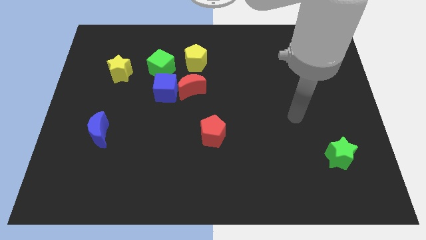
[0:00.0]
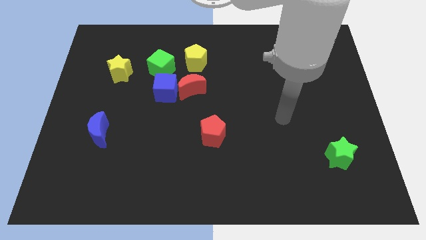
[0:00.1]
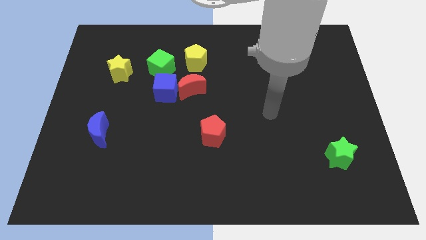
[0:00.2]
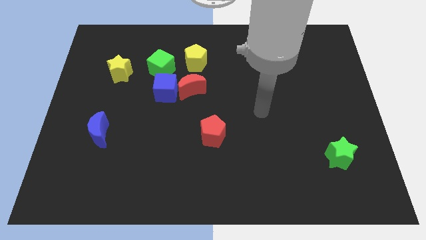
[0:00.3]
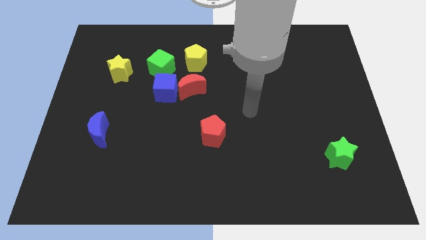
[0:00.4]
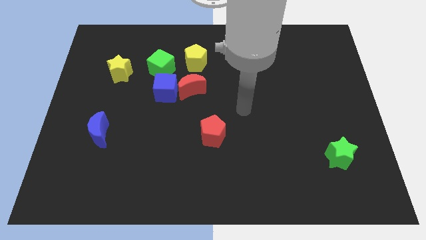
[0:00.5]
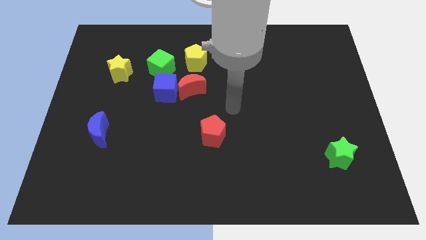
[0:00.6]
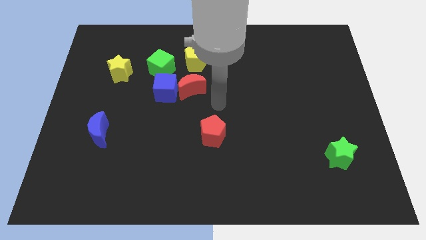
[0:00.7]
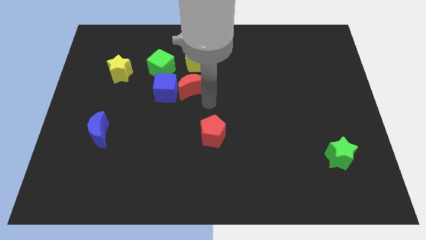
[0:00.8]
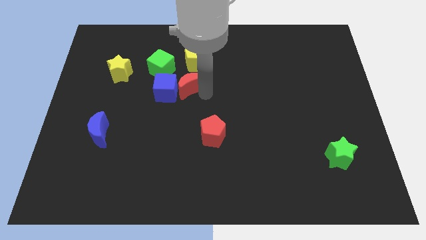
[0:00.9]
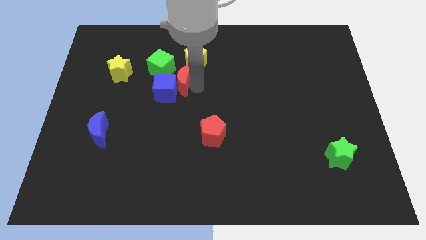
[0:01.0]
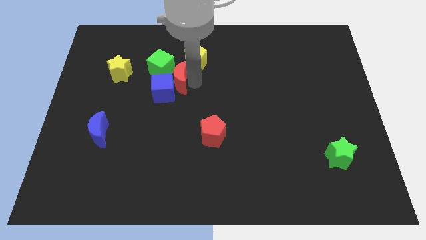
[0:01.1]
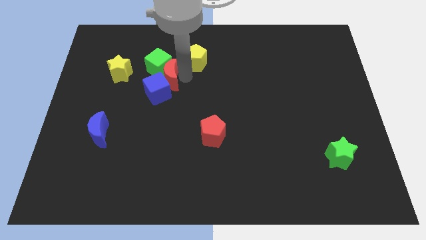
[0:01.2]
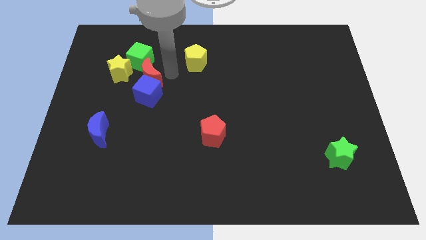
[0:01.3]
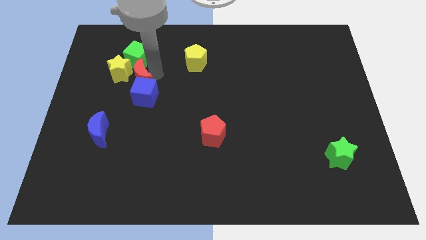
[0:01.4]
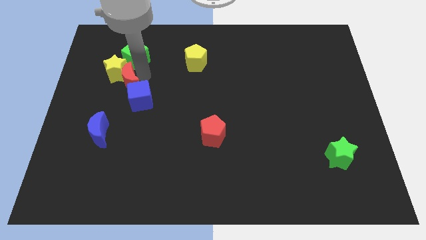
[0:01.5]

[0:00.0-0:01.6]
separate the blue cube from the red moon and green cube

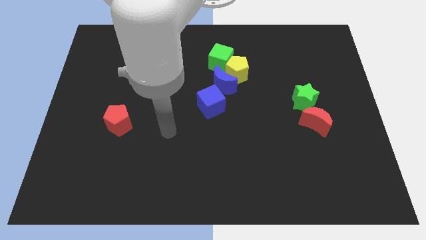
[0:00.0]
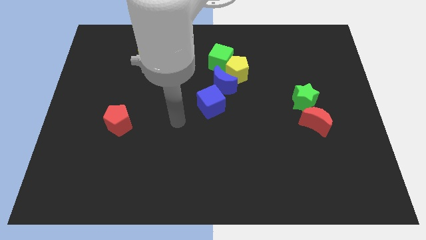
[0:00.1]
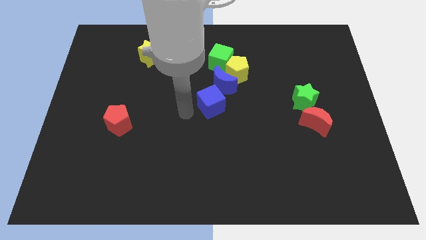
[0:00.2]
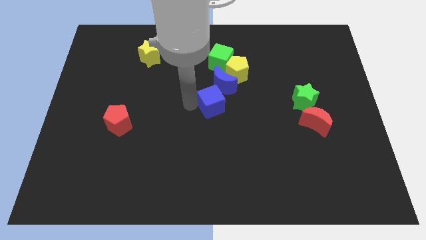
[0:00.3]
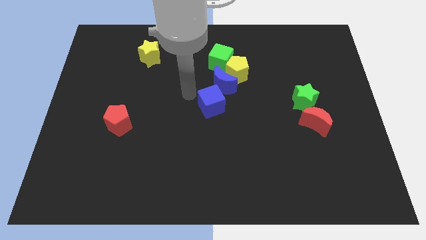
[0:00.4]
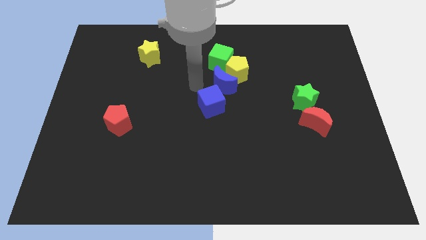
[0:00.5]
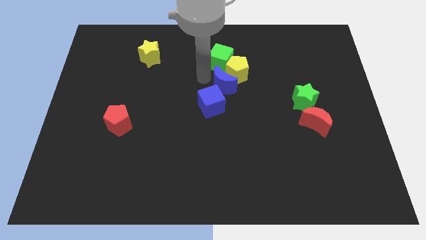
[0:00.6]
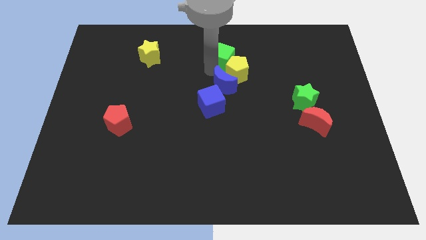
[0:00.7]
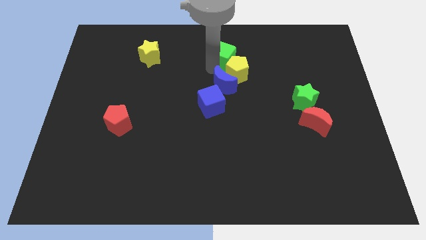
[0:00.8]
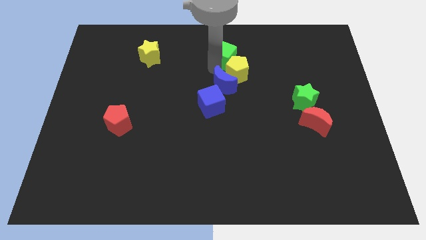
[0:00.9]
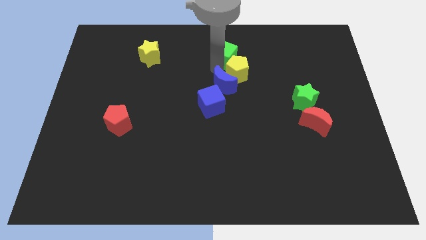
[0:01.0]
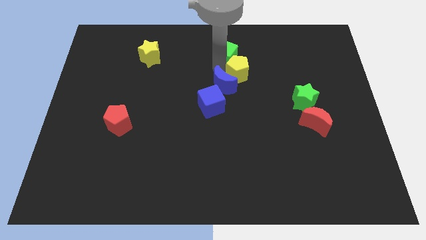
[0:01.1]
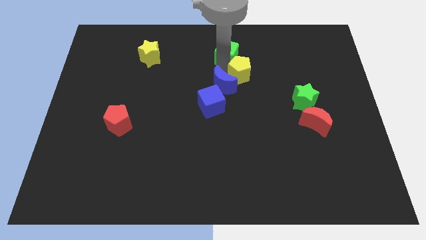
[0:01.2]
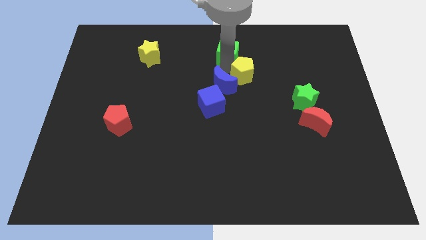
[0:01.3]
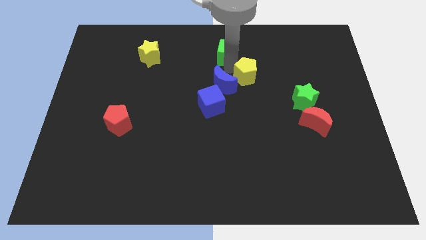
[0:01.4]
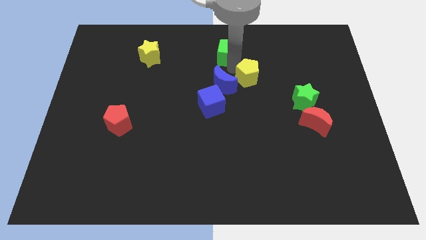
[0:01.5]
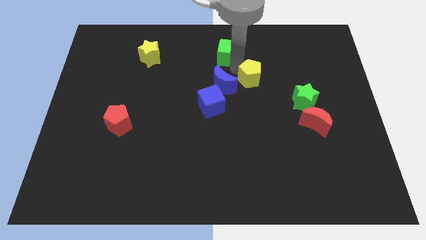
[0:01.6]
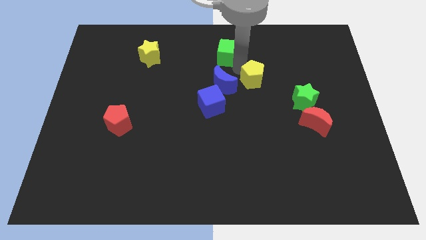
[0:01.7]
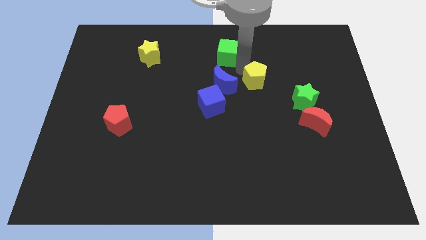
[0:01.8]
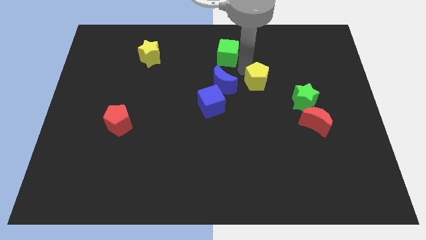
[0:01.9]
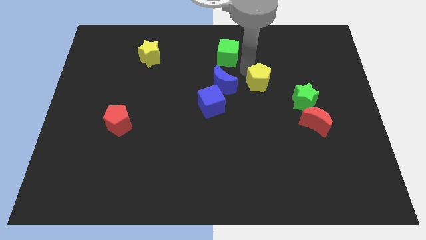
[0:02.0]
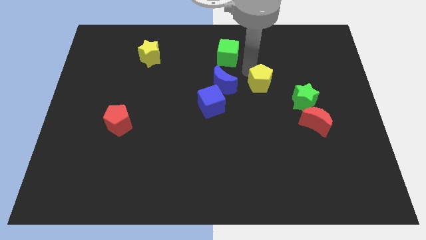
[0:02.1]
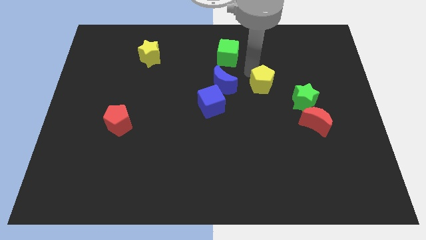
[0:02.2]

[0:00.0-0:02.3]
pull the yellow pentagon apart from the blue moon and green cube

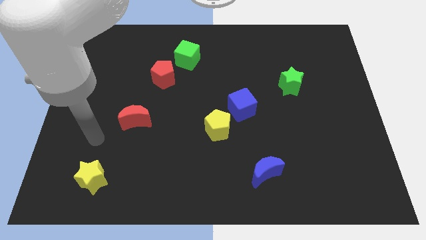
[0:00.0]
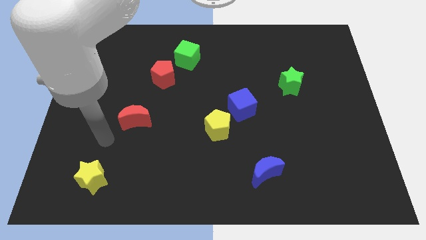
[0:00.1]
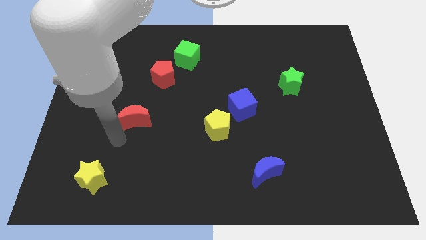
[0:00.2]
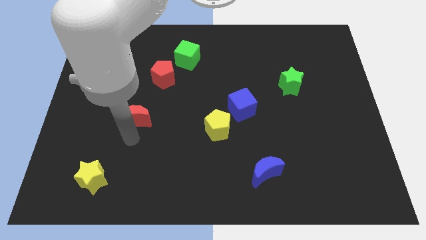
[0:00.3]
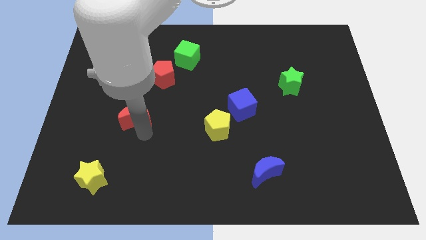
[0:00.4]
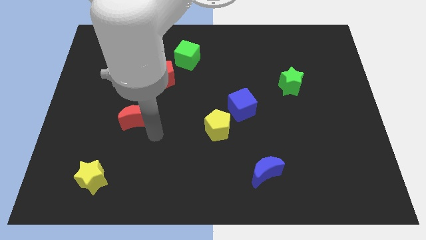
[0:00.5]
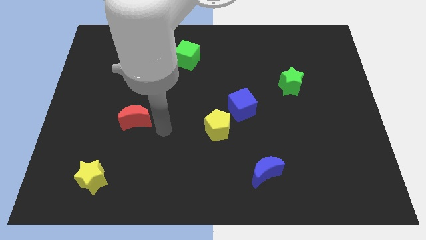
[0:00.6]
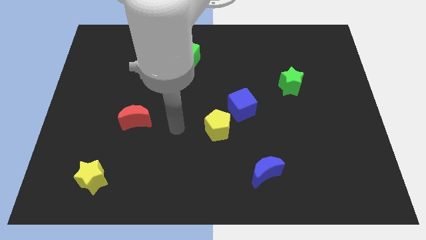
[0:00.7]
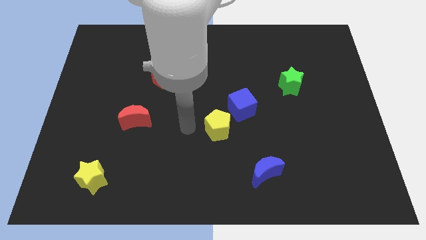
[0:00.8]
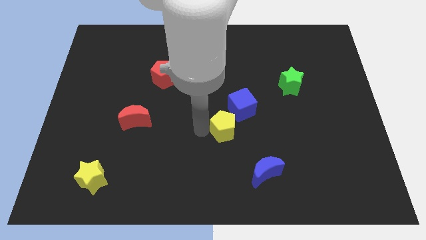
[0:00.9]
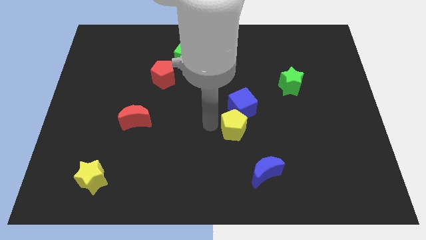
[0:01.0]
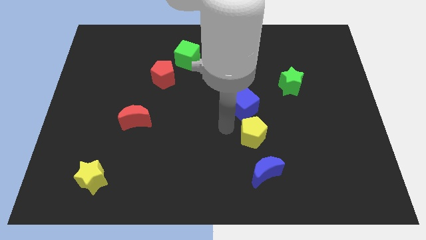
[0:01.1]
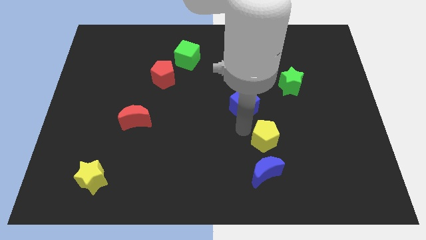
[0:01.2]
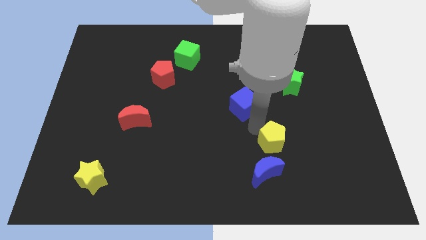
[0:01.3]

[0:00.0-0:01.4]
separate the blue cube from the yellow pentagon

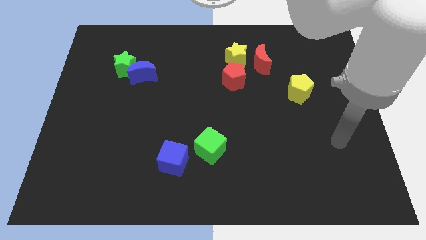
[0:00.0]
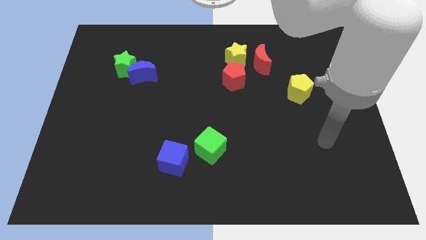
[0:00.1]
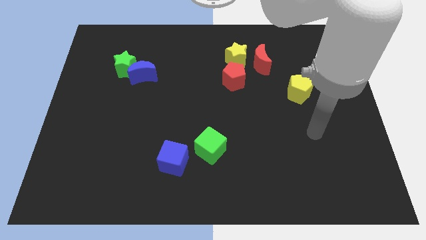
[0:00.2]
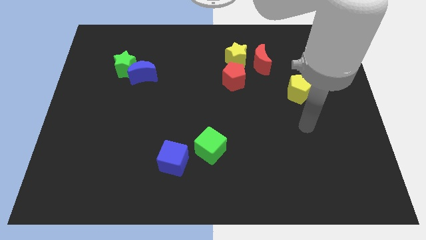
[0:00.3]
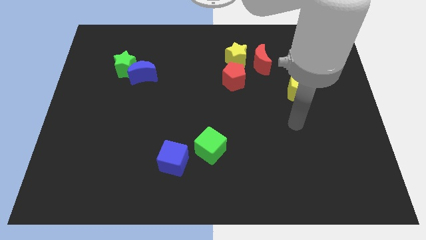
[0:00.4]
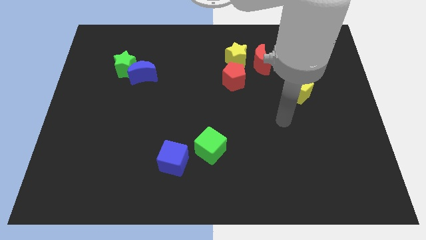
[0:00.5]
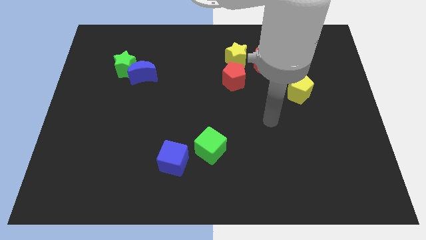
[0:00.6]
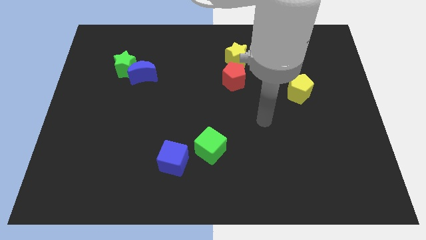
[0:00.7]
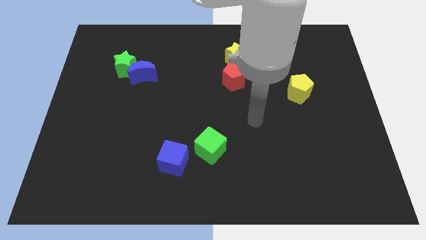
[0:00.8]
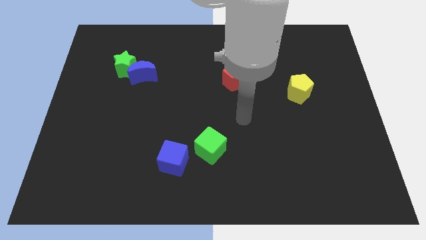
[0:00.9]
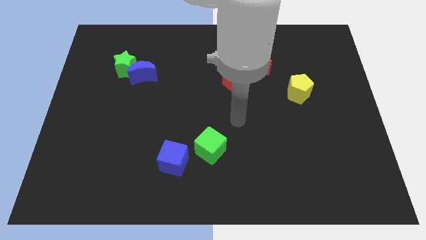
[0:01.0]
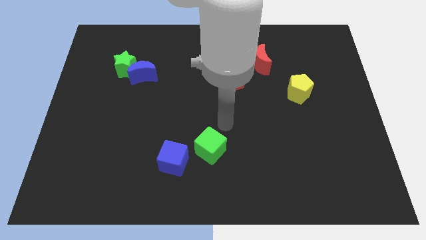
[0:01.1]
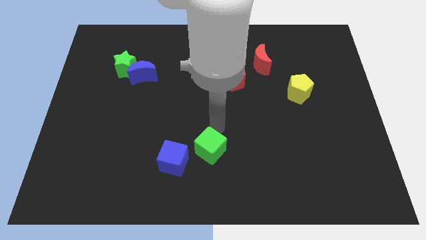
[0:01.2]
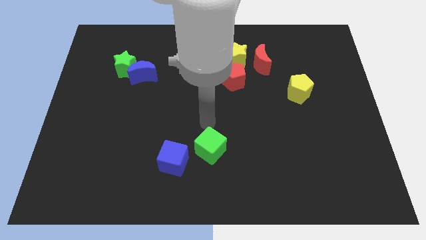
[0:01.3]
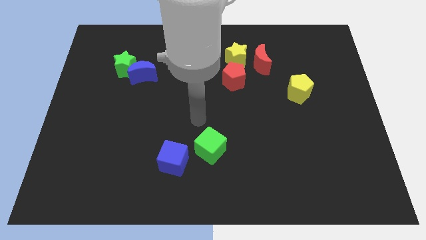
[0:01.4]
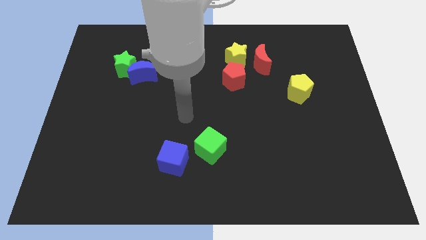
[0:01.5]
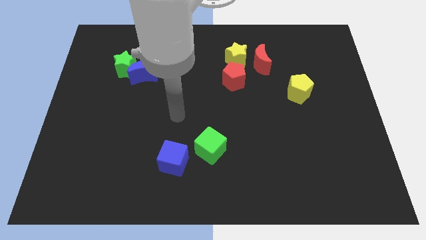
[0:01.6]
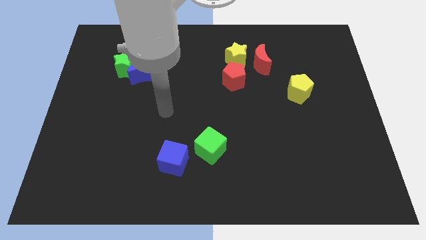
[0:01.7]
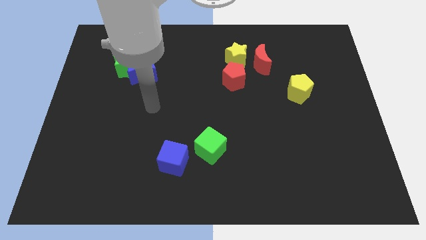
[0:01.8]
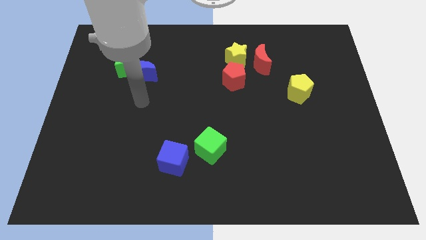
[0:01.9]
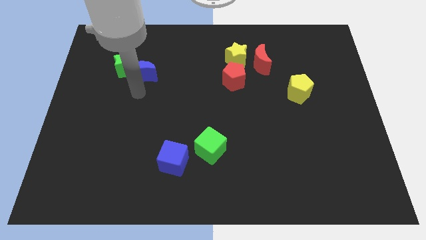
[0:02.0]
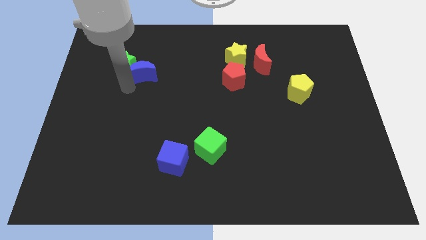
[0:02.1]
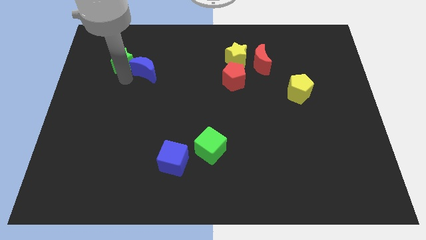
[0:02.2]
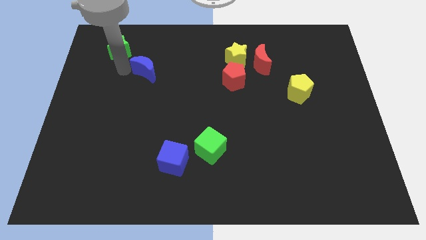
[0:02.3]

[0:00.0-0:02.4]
move the blue moon away from the green star

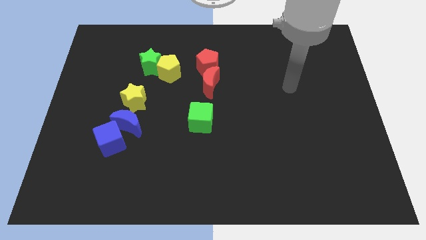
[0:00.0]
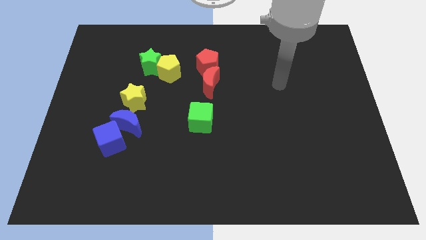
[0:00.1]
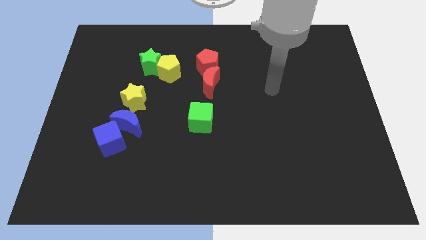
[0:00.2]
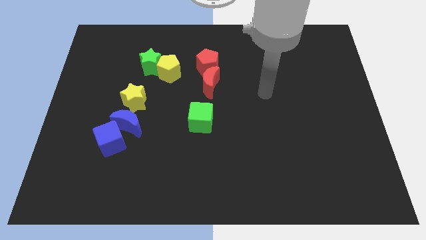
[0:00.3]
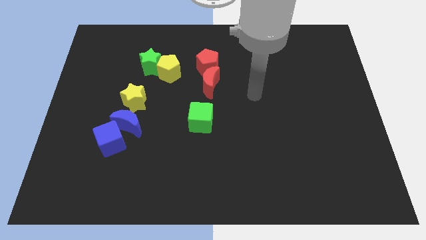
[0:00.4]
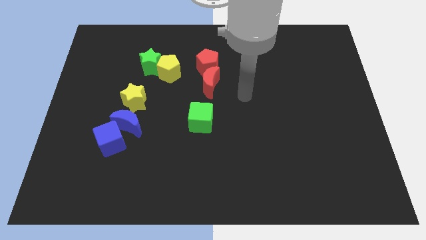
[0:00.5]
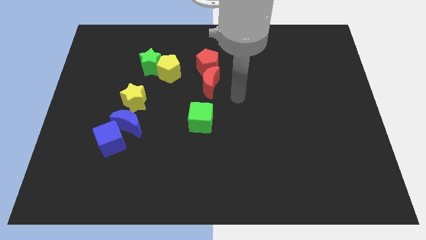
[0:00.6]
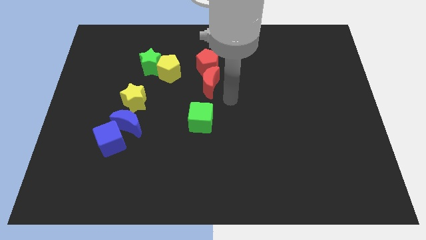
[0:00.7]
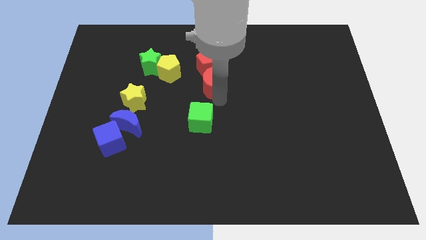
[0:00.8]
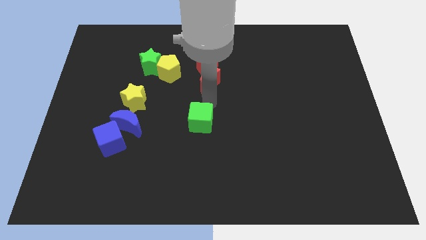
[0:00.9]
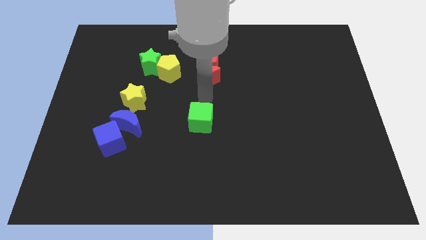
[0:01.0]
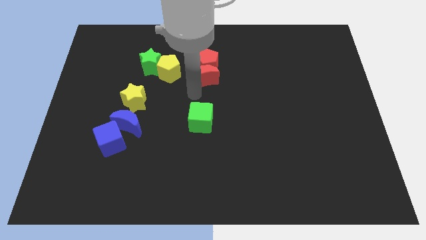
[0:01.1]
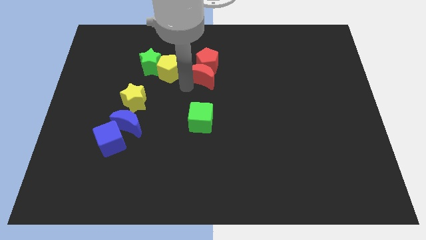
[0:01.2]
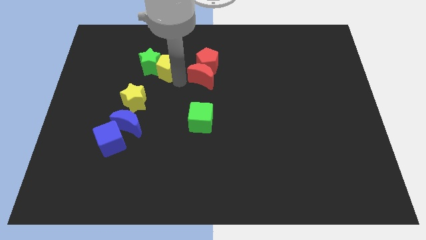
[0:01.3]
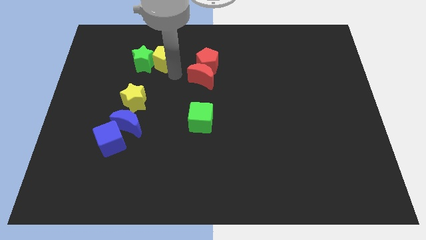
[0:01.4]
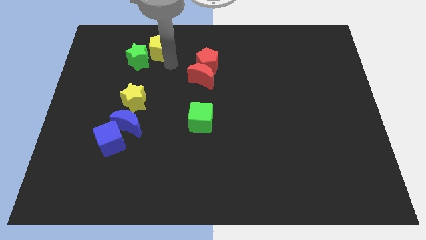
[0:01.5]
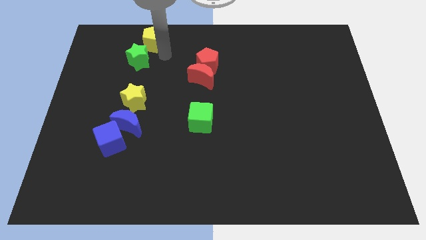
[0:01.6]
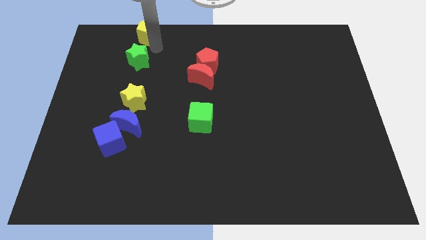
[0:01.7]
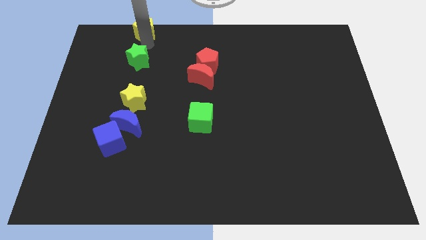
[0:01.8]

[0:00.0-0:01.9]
move the green star away from the yellow pentagon
